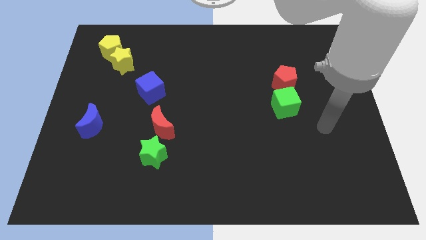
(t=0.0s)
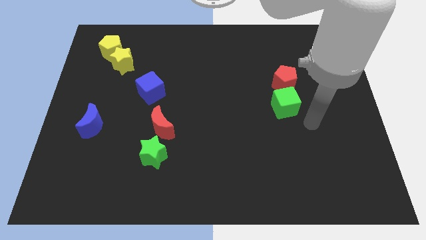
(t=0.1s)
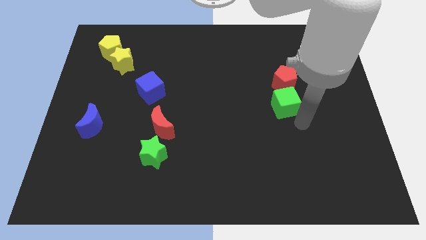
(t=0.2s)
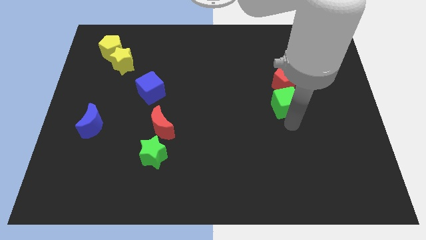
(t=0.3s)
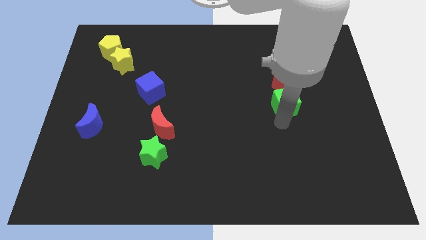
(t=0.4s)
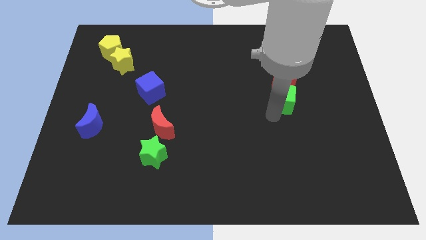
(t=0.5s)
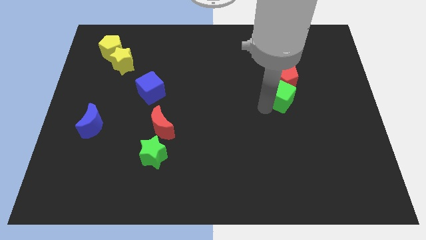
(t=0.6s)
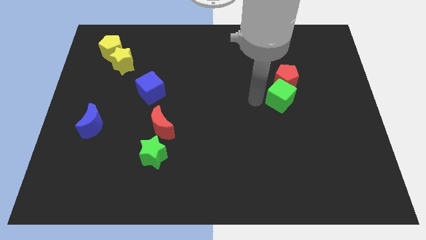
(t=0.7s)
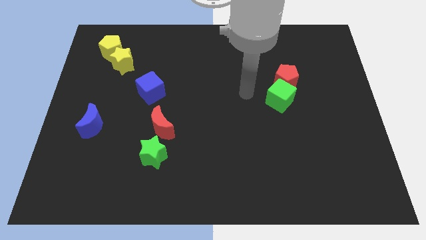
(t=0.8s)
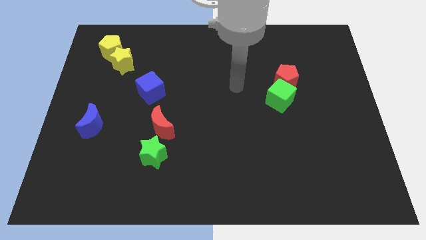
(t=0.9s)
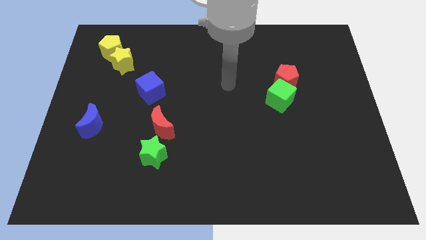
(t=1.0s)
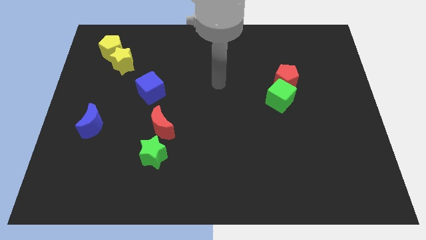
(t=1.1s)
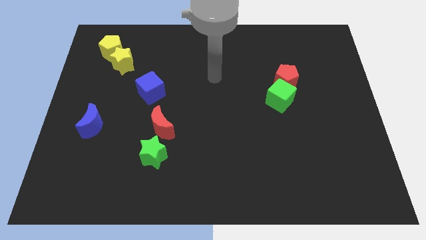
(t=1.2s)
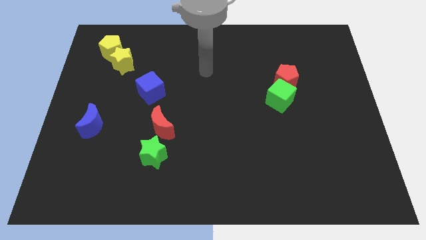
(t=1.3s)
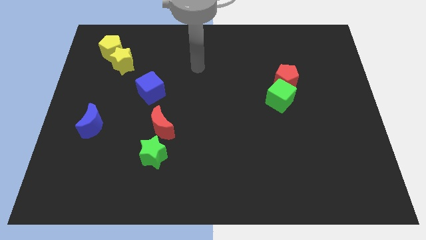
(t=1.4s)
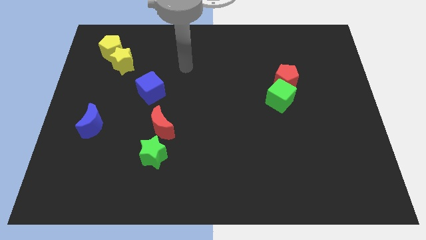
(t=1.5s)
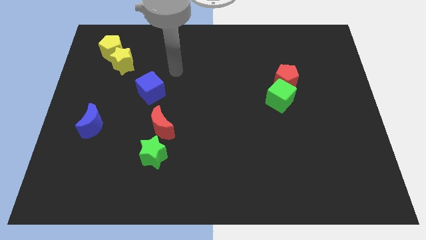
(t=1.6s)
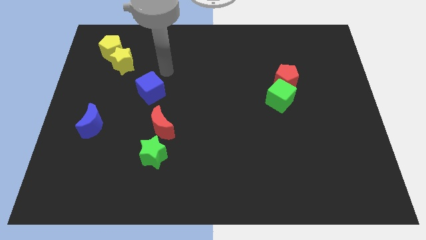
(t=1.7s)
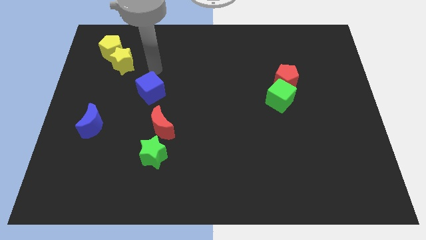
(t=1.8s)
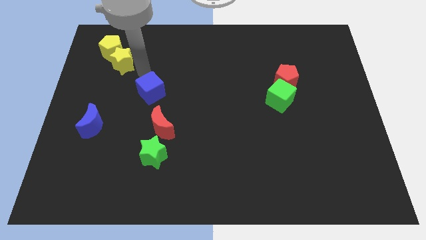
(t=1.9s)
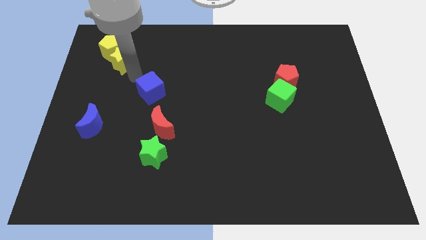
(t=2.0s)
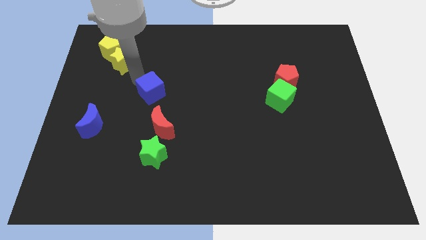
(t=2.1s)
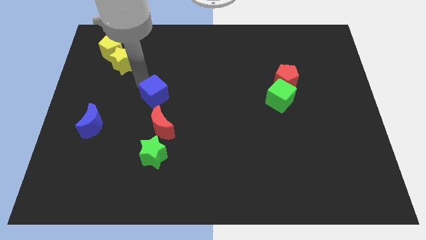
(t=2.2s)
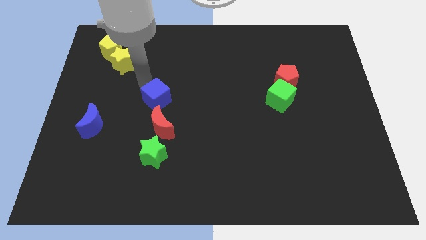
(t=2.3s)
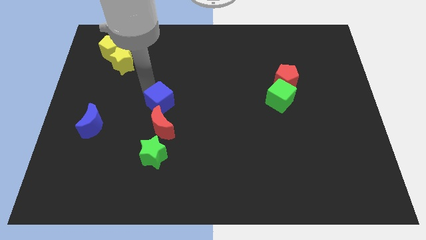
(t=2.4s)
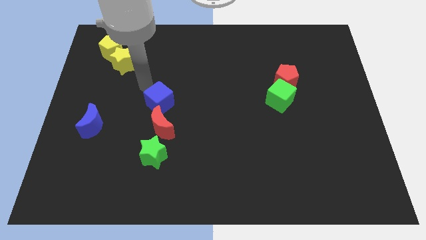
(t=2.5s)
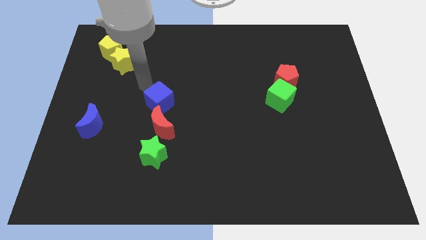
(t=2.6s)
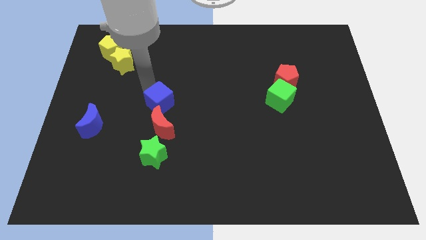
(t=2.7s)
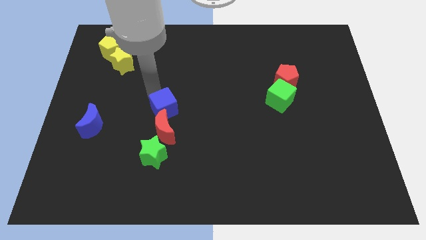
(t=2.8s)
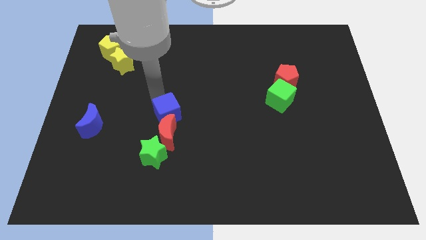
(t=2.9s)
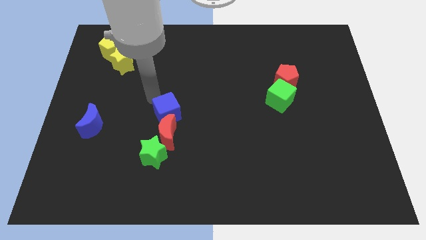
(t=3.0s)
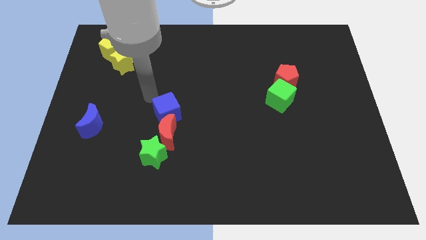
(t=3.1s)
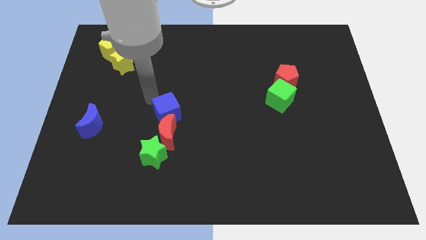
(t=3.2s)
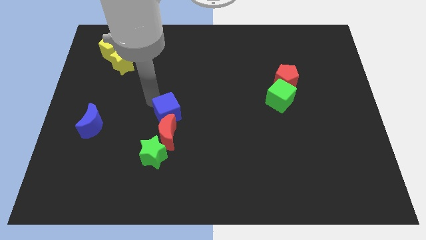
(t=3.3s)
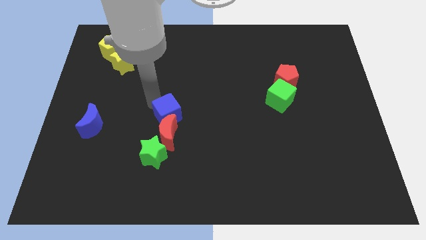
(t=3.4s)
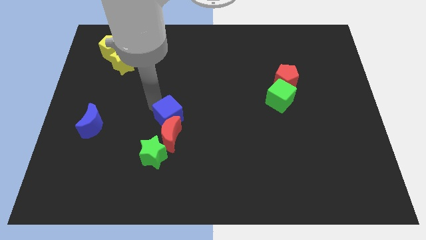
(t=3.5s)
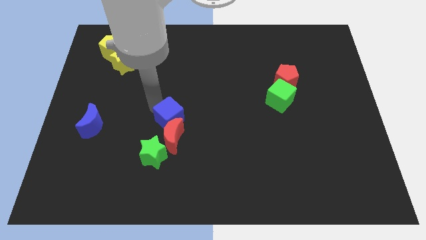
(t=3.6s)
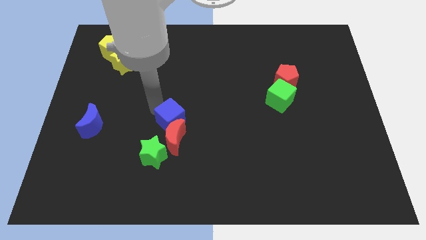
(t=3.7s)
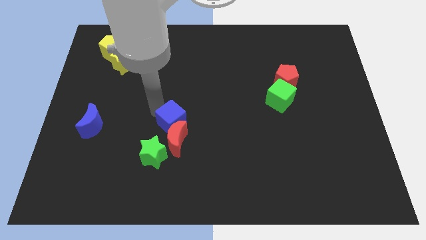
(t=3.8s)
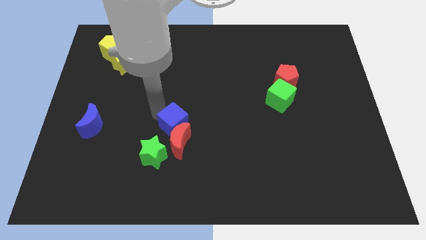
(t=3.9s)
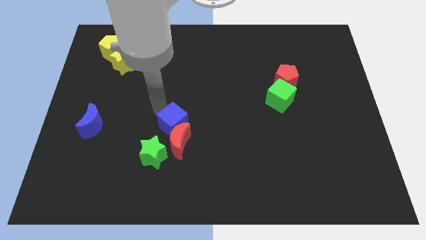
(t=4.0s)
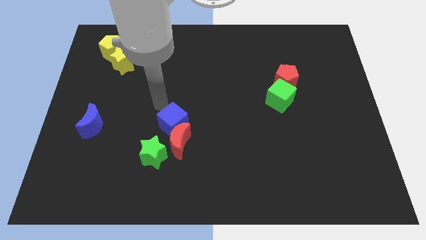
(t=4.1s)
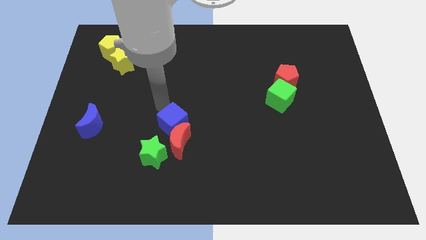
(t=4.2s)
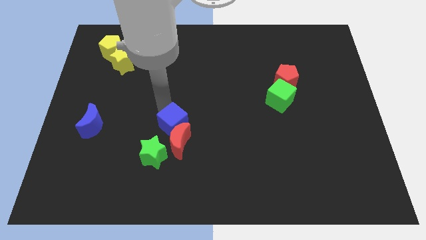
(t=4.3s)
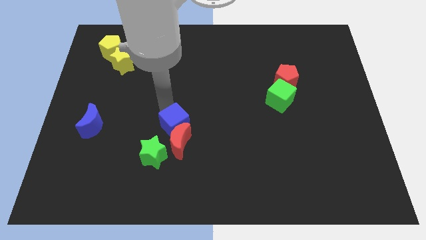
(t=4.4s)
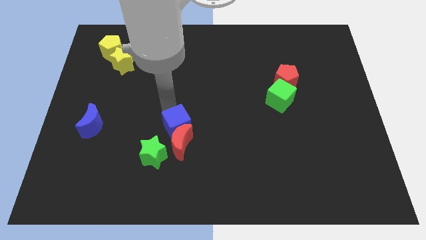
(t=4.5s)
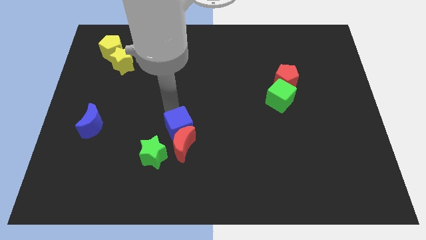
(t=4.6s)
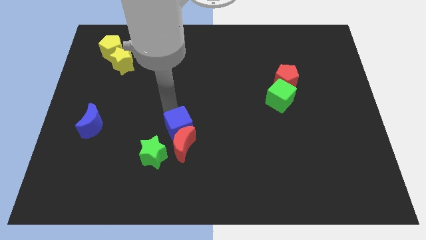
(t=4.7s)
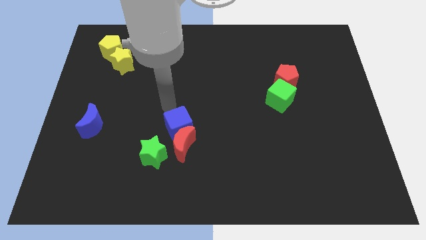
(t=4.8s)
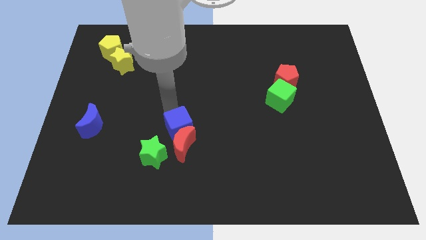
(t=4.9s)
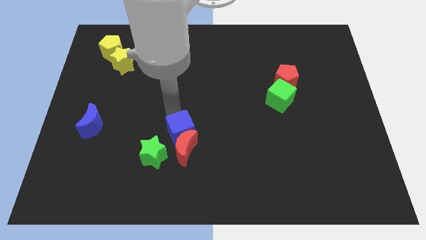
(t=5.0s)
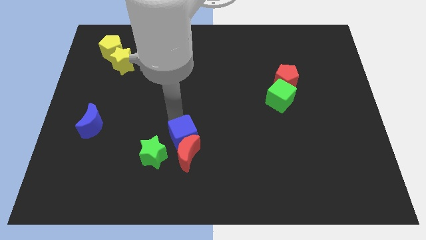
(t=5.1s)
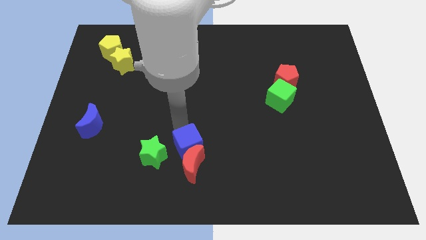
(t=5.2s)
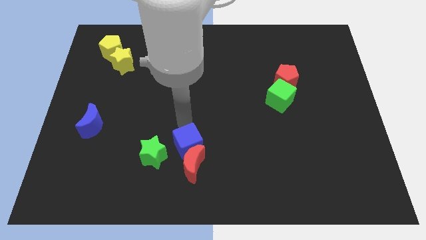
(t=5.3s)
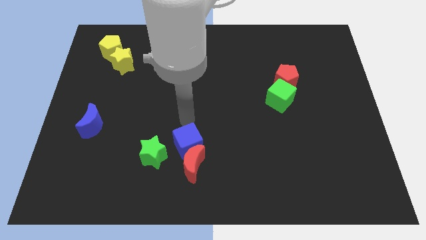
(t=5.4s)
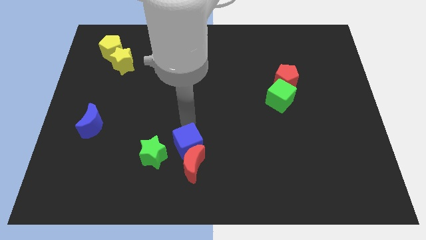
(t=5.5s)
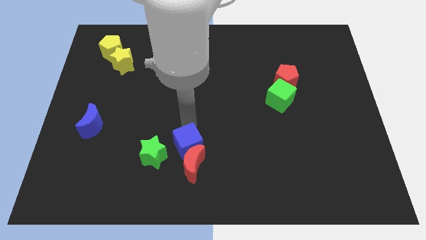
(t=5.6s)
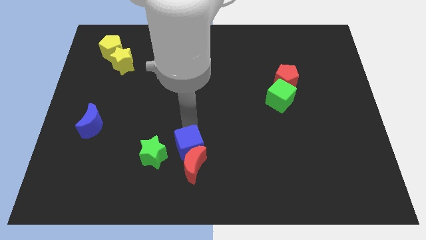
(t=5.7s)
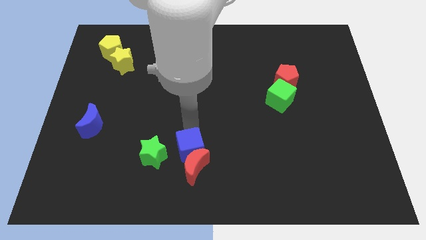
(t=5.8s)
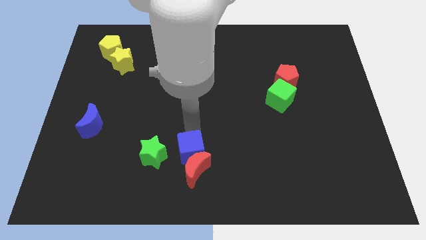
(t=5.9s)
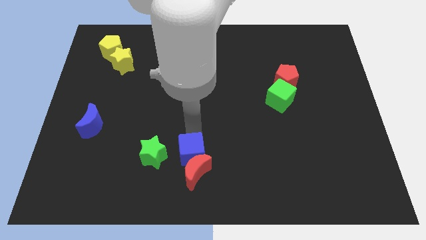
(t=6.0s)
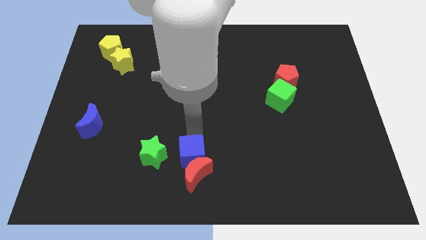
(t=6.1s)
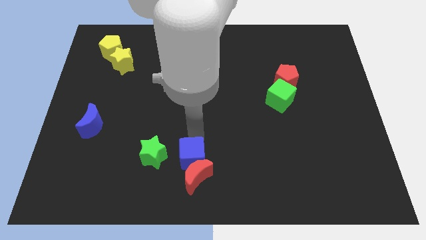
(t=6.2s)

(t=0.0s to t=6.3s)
move the blue cube to the bottom side

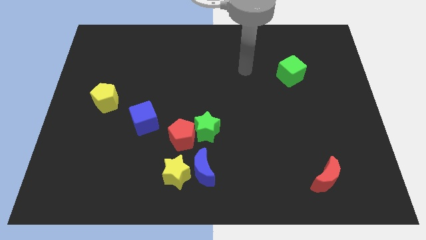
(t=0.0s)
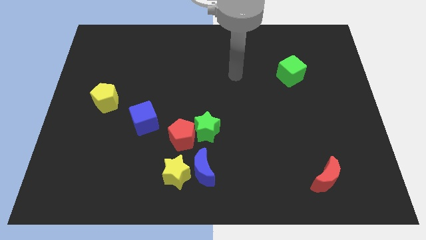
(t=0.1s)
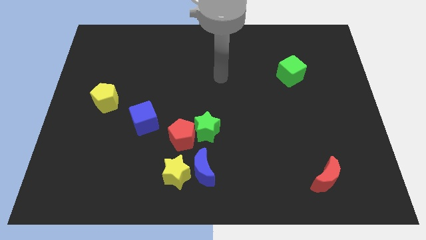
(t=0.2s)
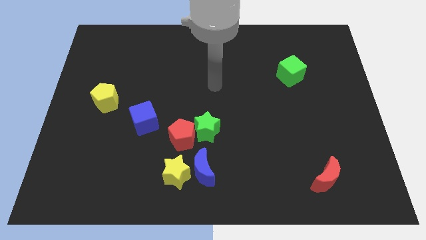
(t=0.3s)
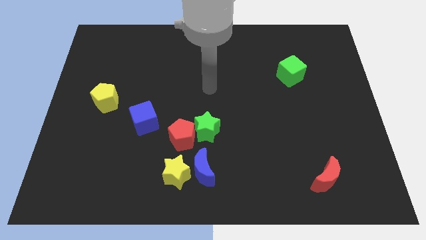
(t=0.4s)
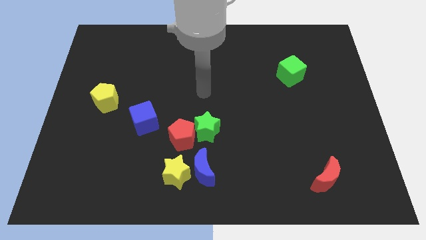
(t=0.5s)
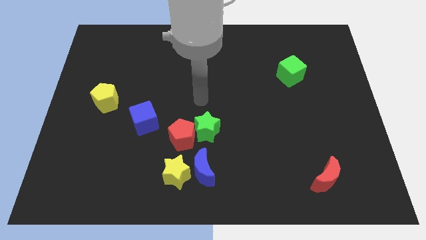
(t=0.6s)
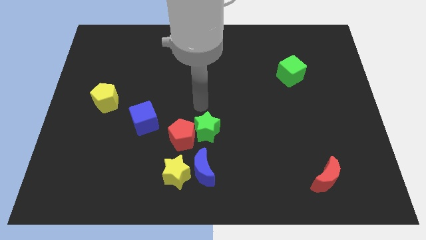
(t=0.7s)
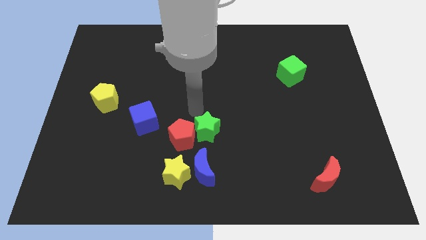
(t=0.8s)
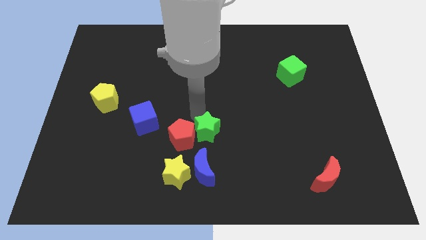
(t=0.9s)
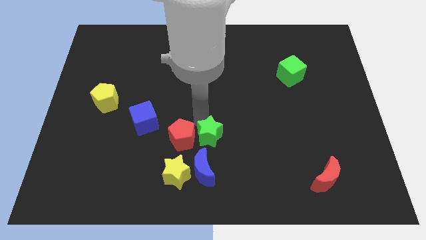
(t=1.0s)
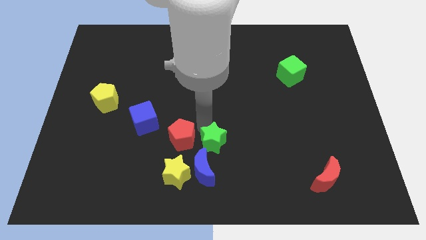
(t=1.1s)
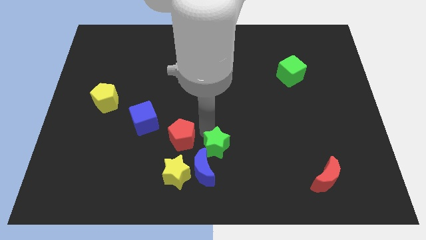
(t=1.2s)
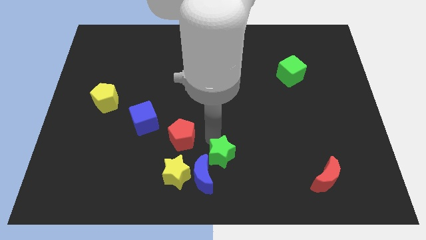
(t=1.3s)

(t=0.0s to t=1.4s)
move the green star to the bottom side
